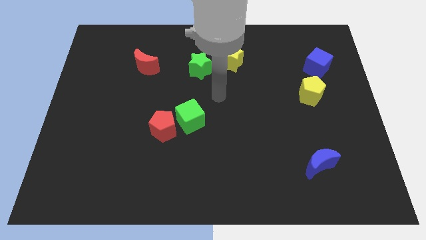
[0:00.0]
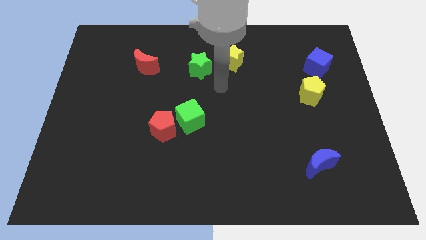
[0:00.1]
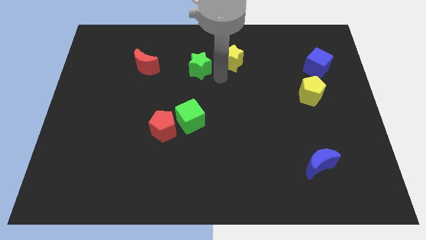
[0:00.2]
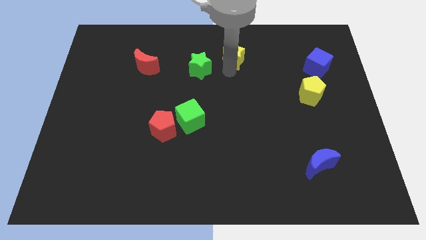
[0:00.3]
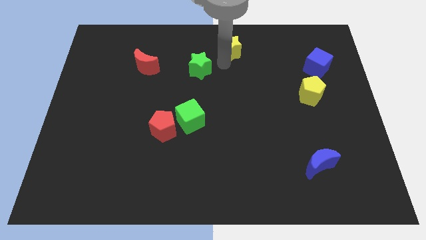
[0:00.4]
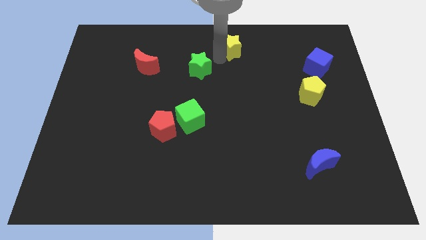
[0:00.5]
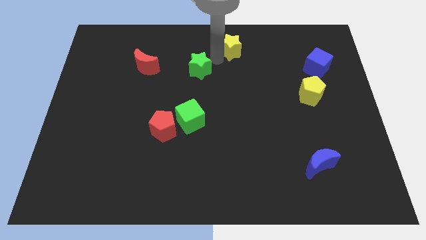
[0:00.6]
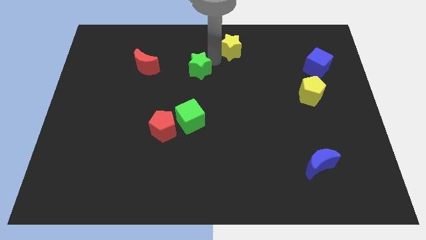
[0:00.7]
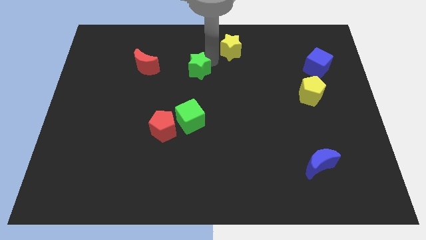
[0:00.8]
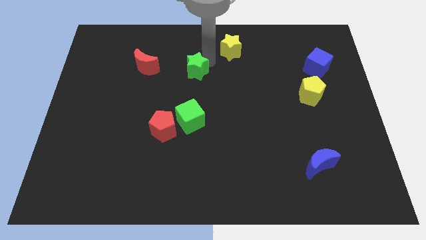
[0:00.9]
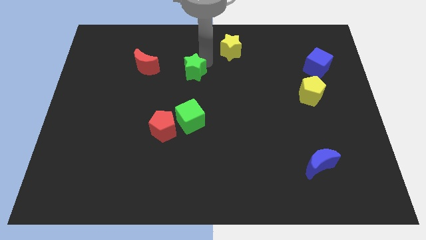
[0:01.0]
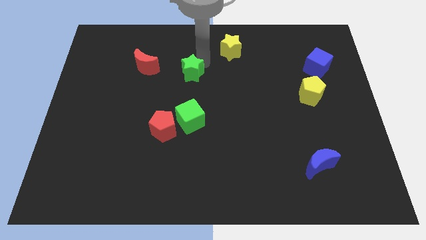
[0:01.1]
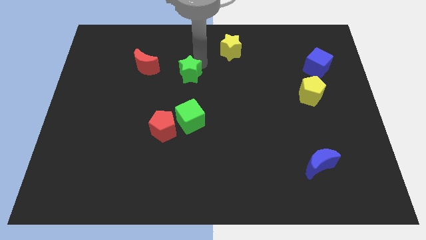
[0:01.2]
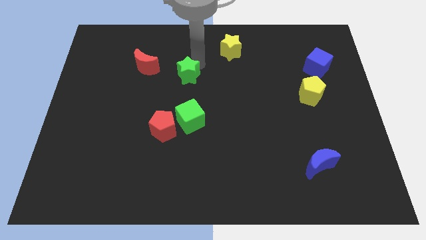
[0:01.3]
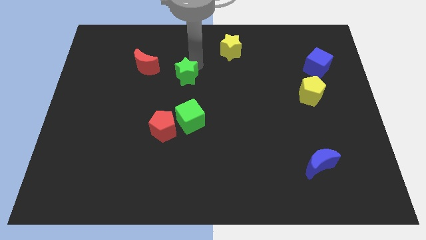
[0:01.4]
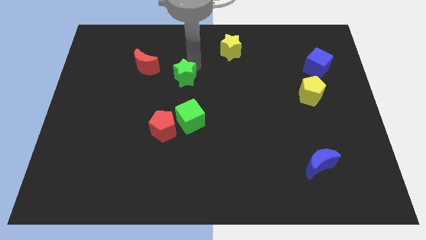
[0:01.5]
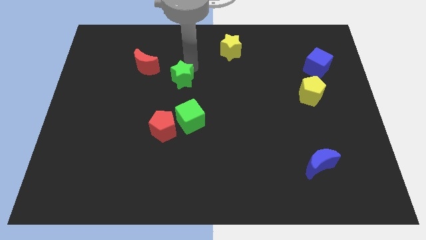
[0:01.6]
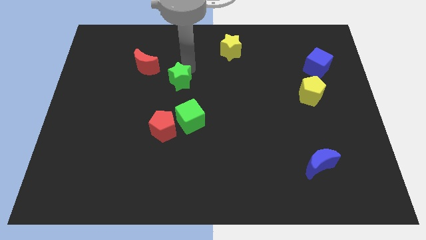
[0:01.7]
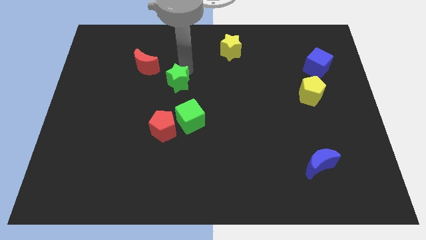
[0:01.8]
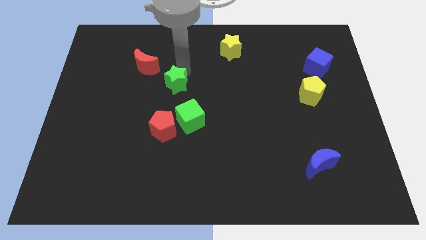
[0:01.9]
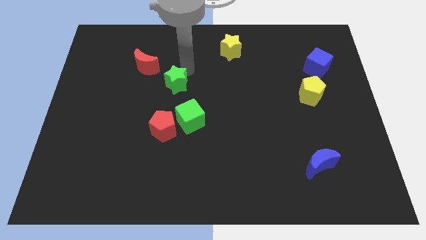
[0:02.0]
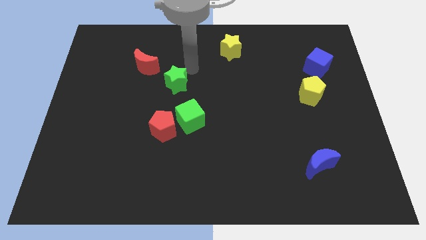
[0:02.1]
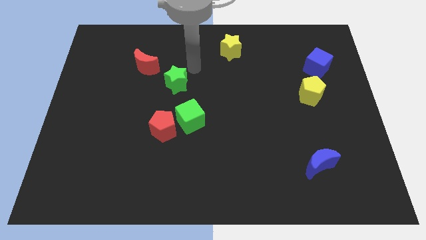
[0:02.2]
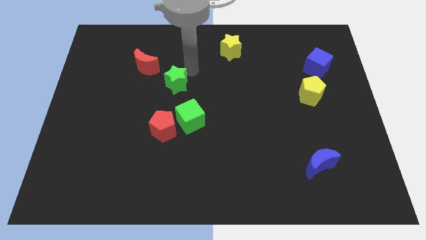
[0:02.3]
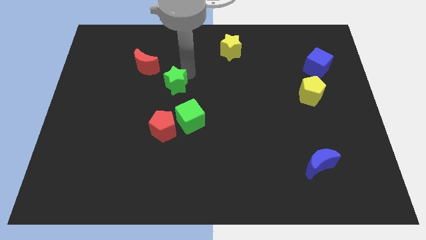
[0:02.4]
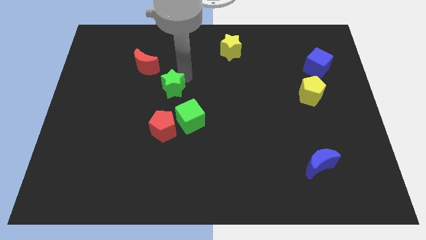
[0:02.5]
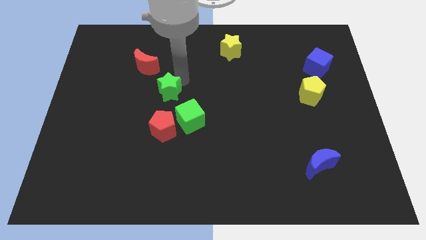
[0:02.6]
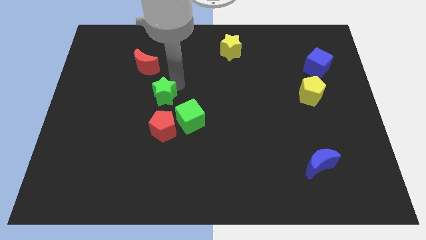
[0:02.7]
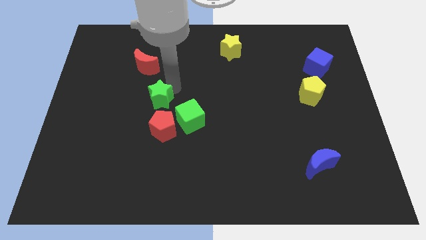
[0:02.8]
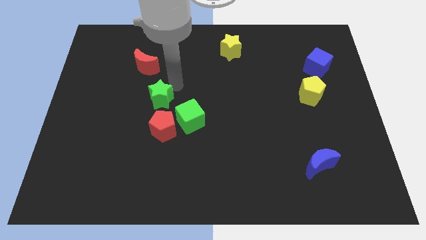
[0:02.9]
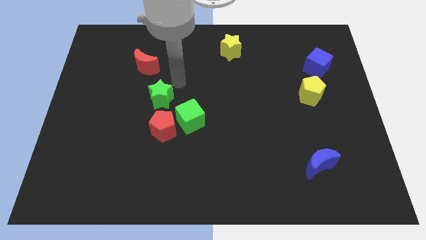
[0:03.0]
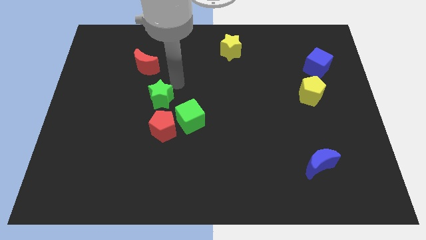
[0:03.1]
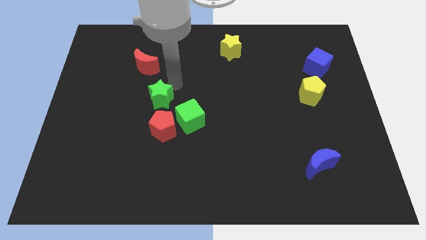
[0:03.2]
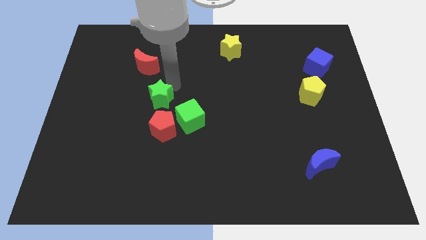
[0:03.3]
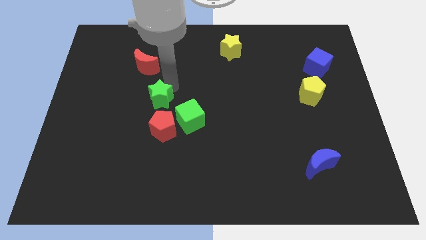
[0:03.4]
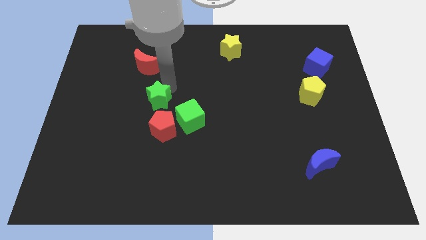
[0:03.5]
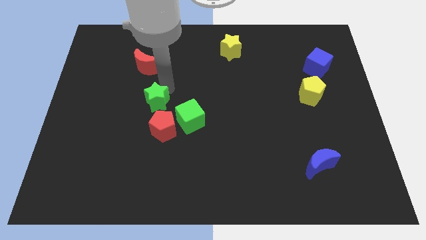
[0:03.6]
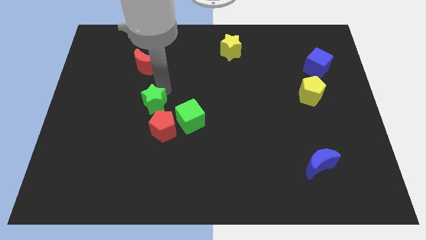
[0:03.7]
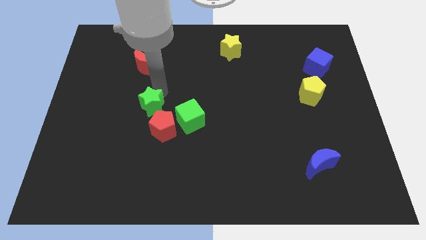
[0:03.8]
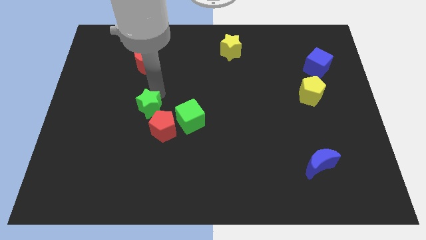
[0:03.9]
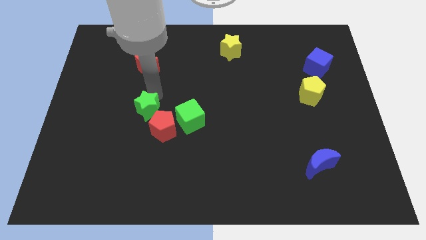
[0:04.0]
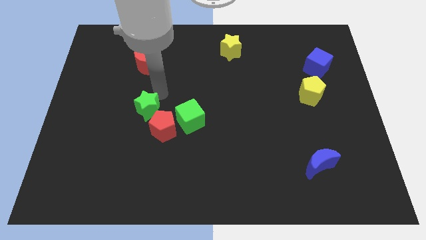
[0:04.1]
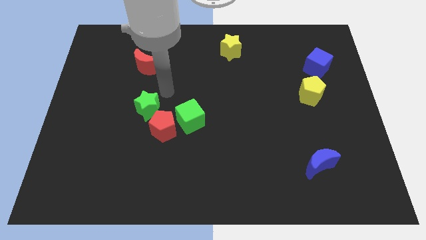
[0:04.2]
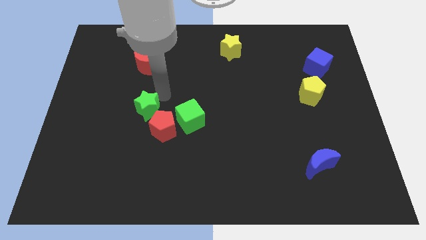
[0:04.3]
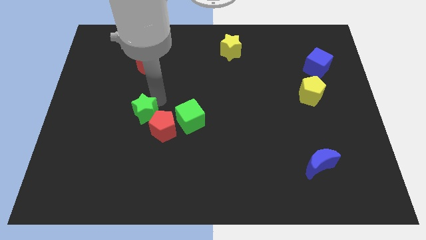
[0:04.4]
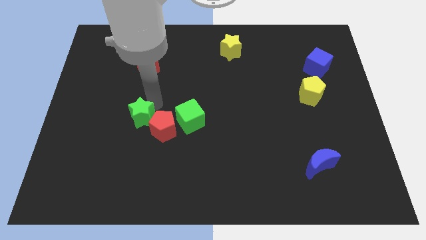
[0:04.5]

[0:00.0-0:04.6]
slide the green star downwards and then left

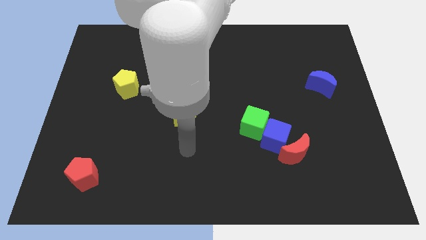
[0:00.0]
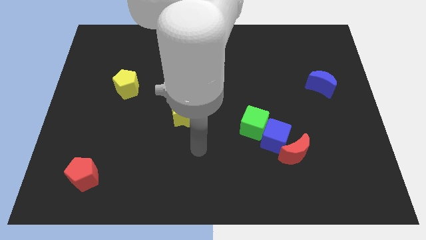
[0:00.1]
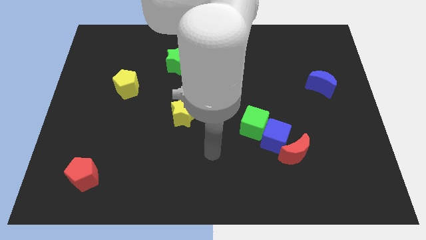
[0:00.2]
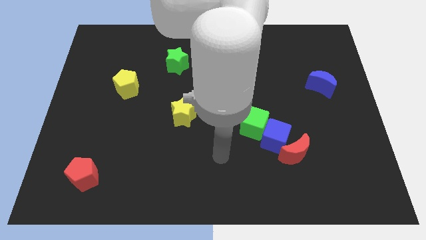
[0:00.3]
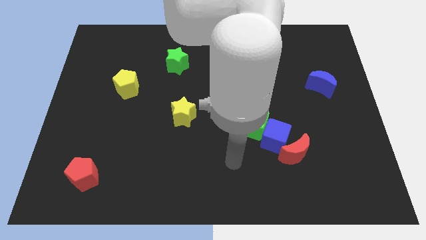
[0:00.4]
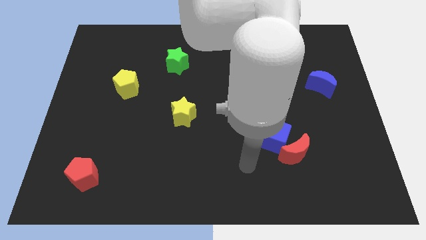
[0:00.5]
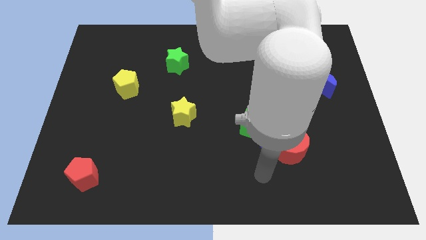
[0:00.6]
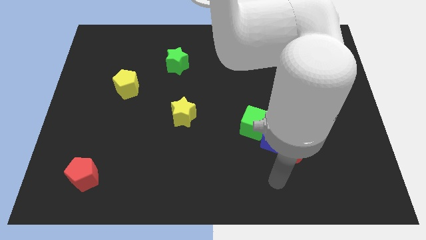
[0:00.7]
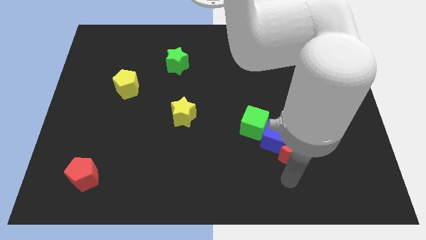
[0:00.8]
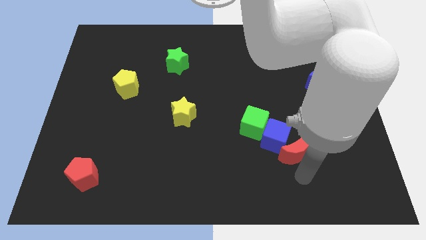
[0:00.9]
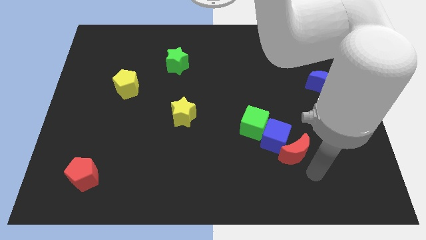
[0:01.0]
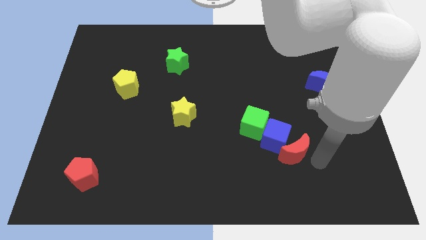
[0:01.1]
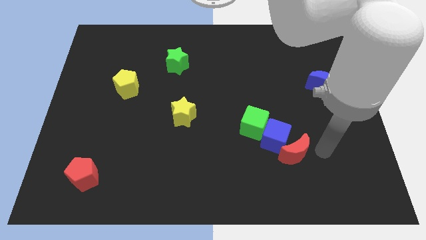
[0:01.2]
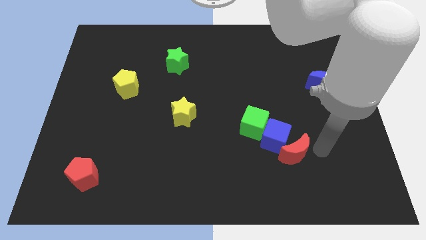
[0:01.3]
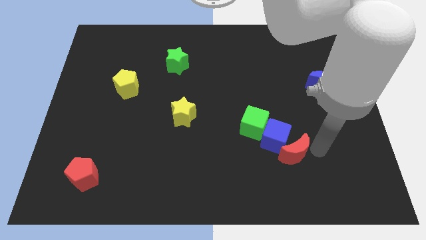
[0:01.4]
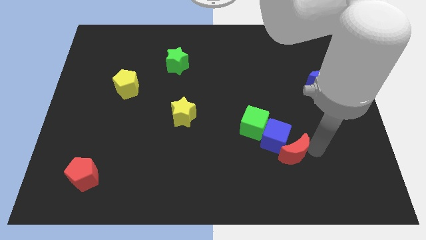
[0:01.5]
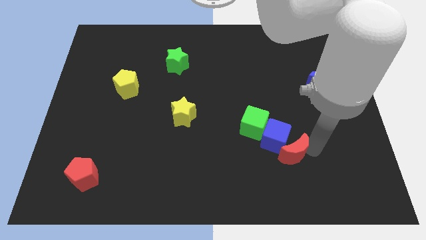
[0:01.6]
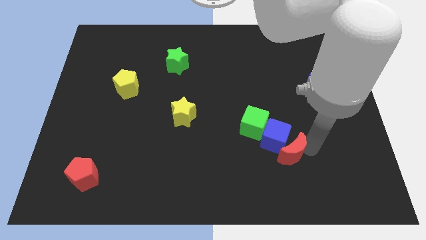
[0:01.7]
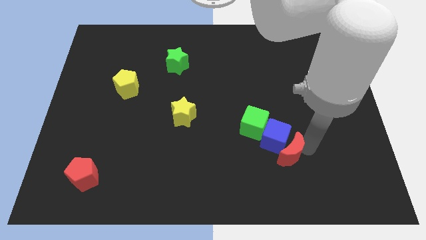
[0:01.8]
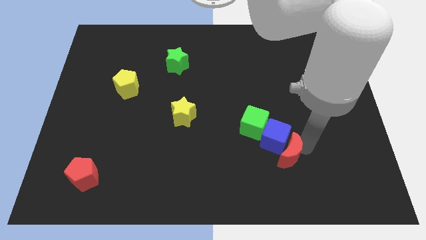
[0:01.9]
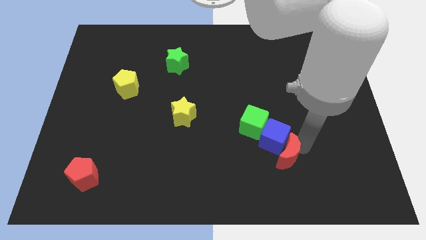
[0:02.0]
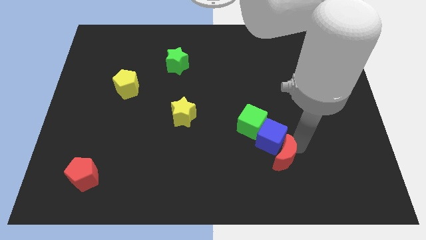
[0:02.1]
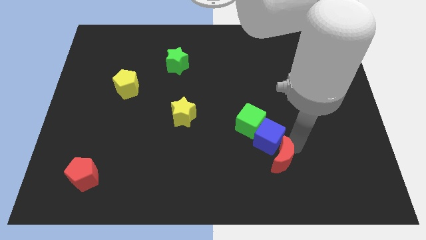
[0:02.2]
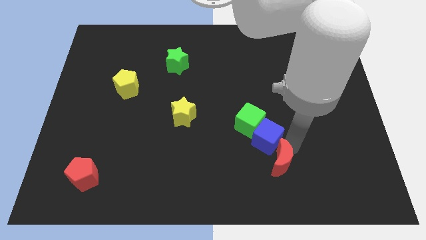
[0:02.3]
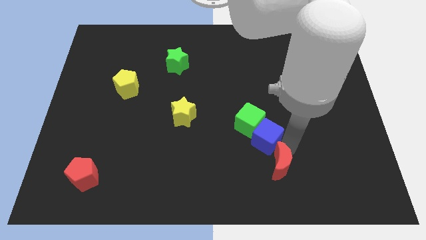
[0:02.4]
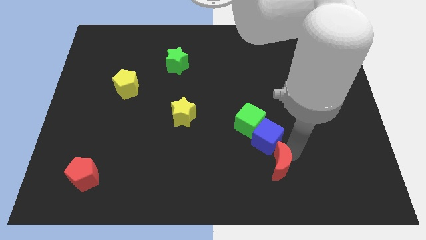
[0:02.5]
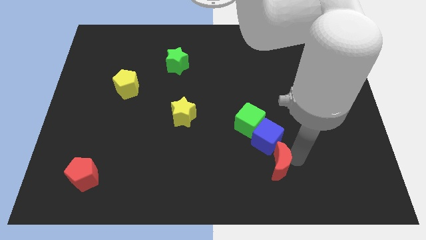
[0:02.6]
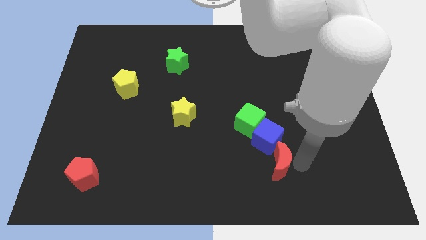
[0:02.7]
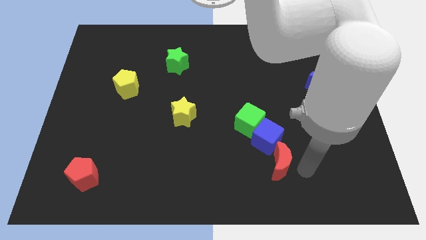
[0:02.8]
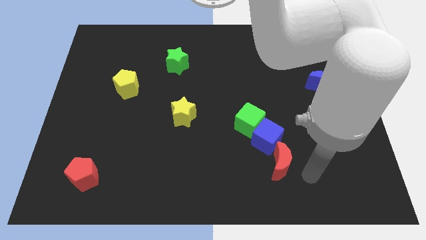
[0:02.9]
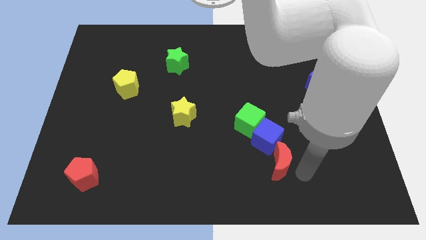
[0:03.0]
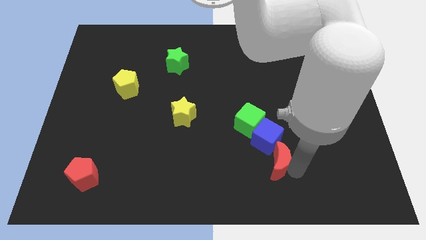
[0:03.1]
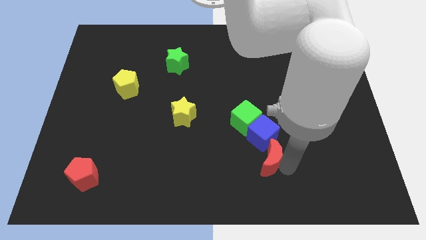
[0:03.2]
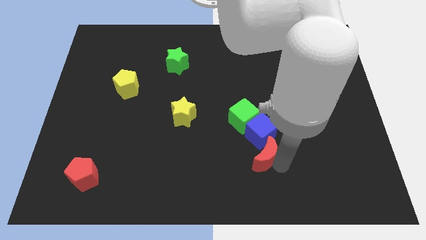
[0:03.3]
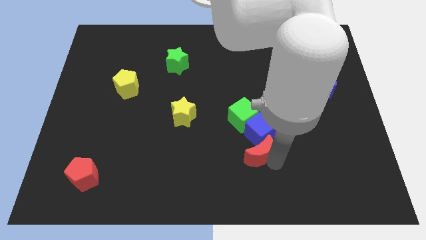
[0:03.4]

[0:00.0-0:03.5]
slide the red moon to the left slightly
